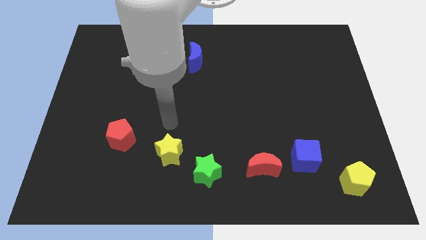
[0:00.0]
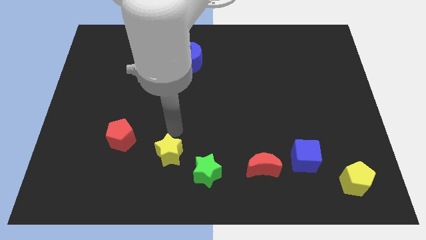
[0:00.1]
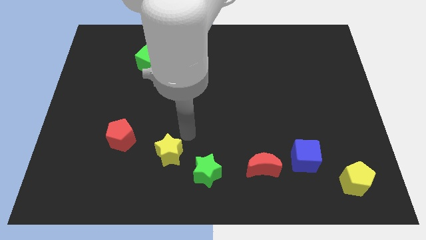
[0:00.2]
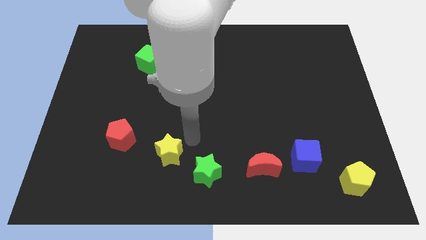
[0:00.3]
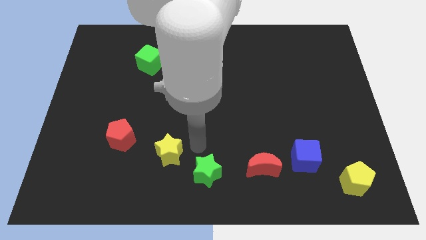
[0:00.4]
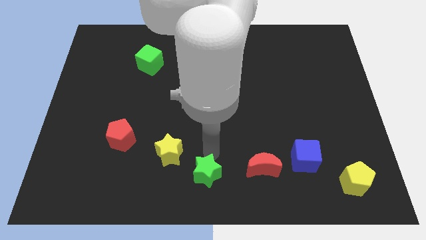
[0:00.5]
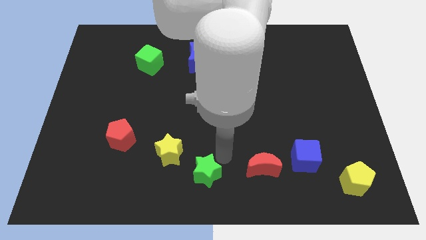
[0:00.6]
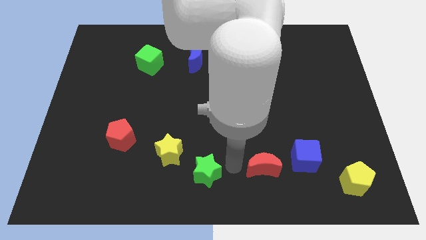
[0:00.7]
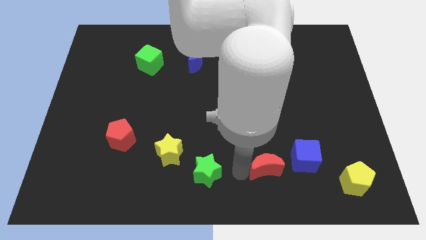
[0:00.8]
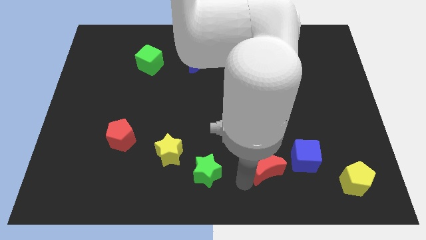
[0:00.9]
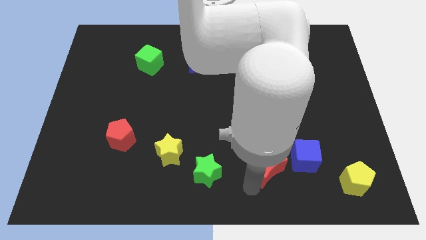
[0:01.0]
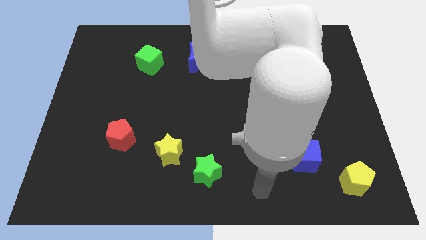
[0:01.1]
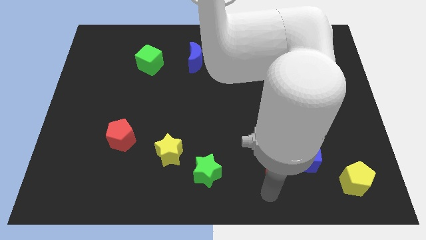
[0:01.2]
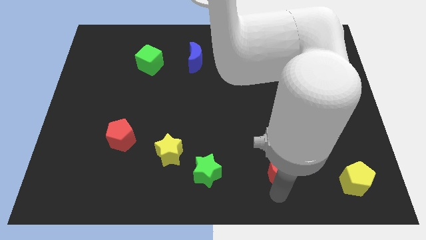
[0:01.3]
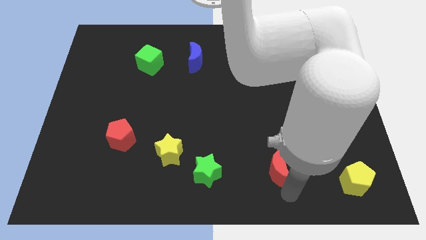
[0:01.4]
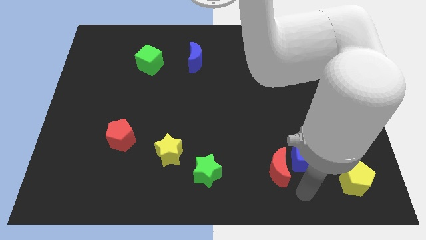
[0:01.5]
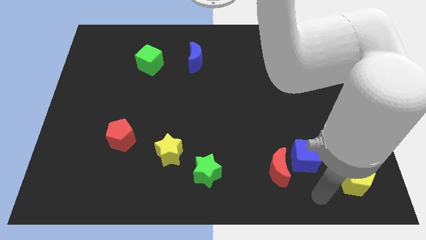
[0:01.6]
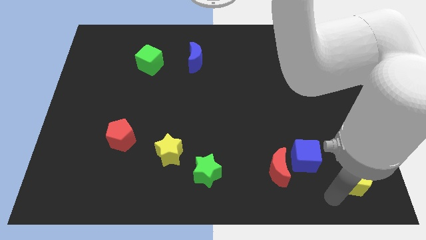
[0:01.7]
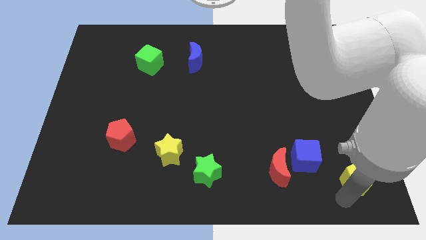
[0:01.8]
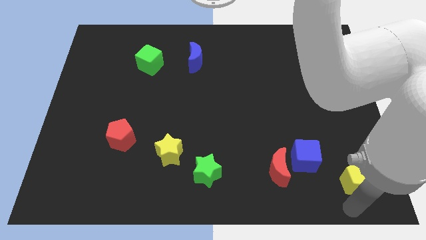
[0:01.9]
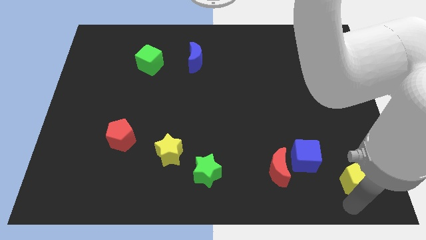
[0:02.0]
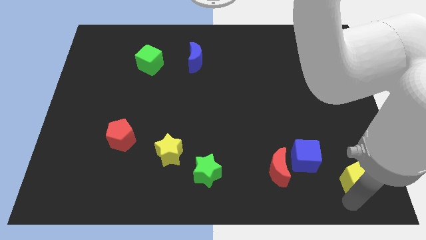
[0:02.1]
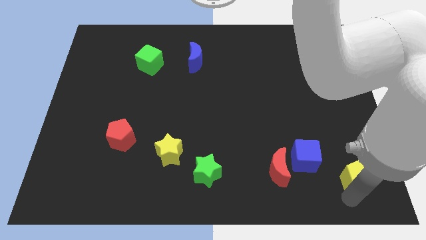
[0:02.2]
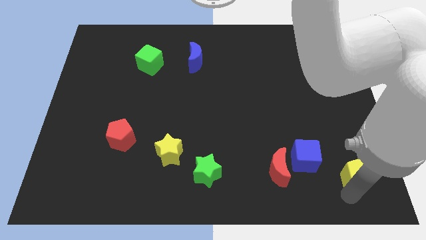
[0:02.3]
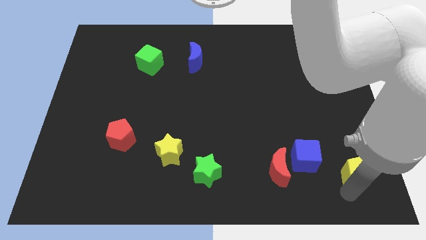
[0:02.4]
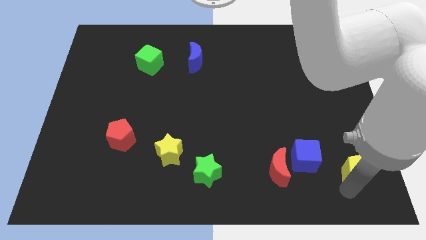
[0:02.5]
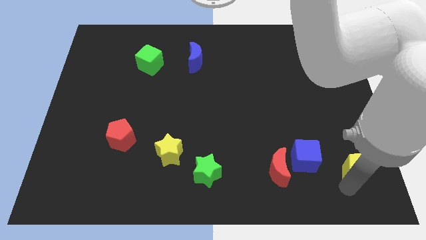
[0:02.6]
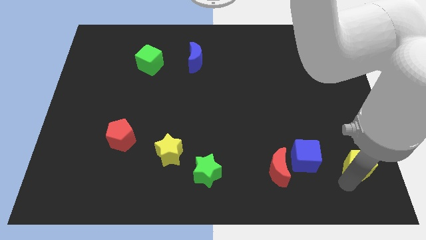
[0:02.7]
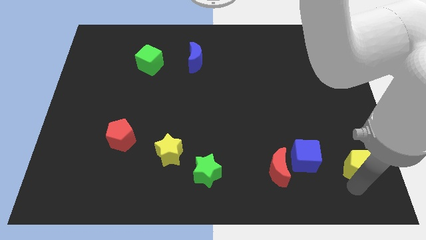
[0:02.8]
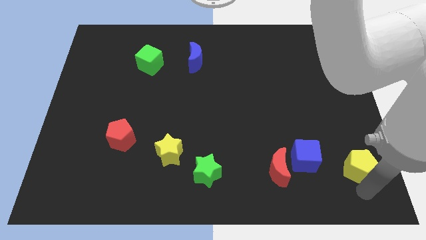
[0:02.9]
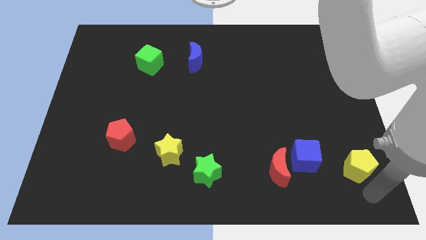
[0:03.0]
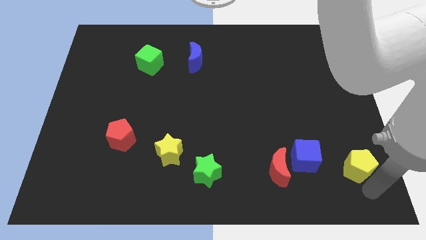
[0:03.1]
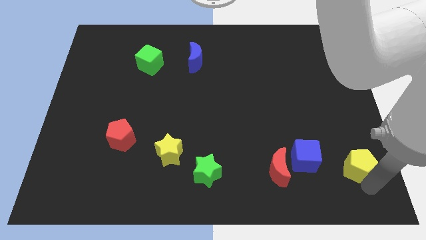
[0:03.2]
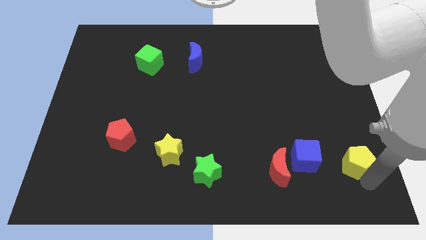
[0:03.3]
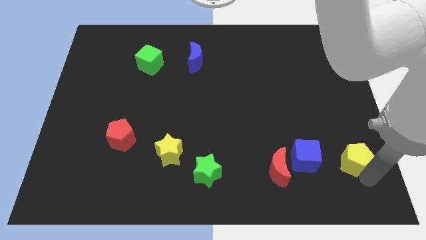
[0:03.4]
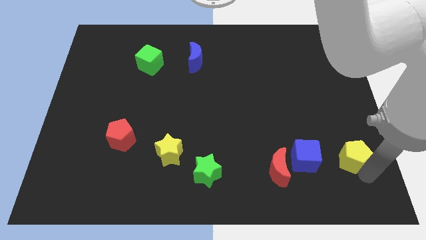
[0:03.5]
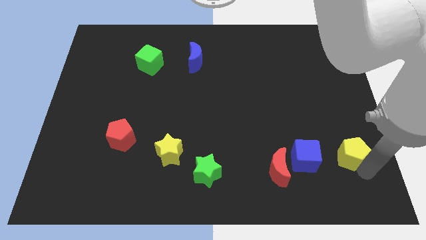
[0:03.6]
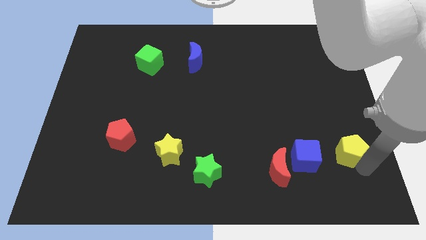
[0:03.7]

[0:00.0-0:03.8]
slightly move the yellow pentagon up

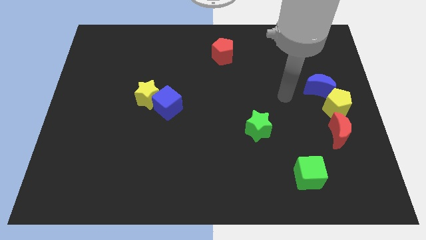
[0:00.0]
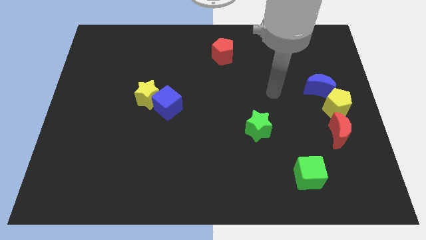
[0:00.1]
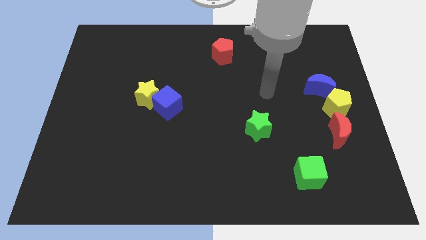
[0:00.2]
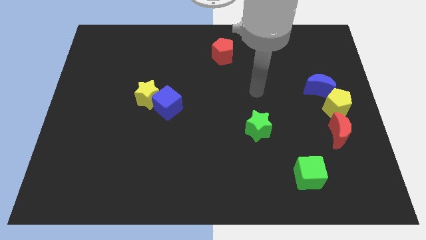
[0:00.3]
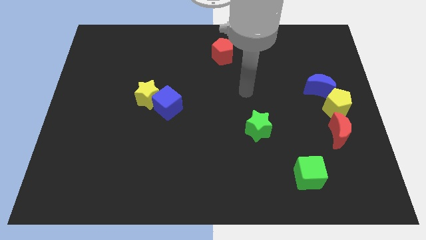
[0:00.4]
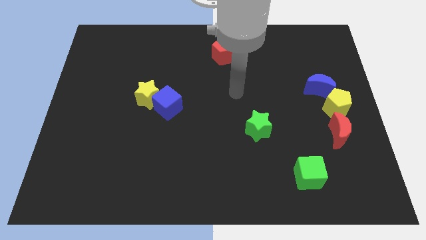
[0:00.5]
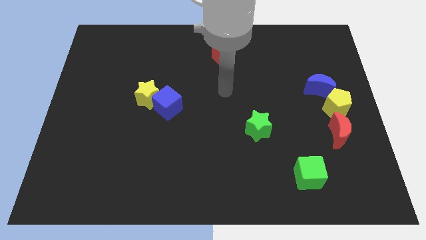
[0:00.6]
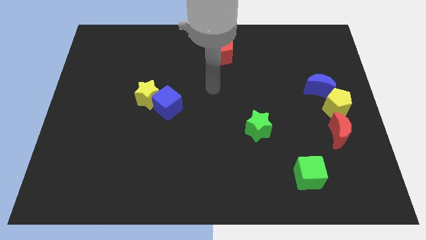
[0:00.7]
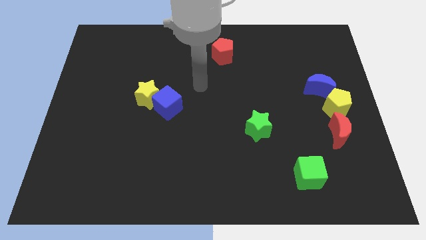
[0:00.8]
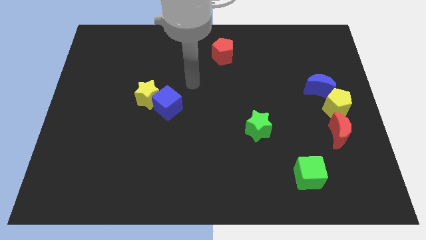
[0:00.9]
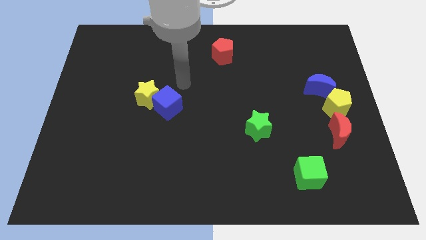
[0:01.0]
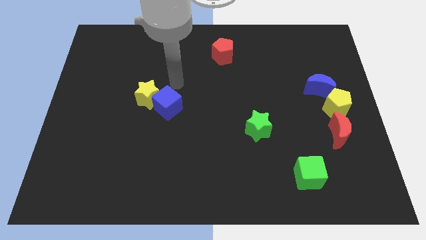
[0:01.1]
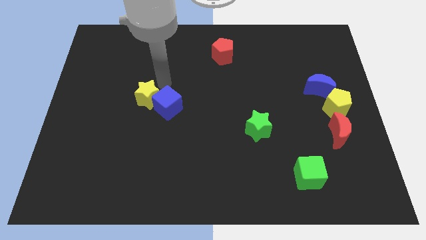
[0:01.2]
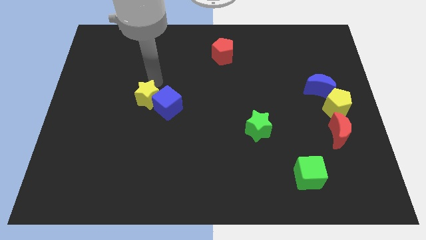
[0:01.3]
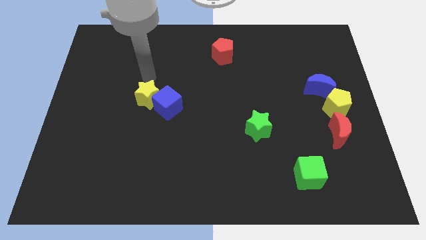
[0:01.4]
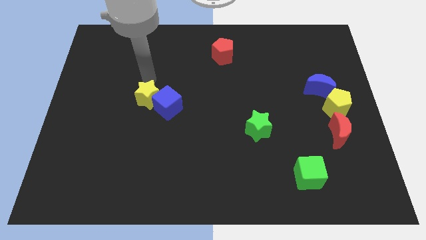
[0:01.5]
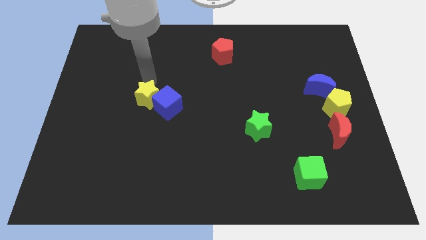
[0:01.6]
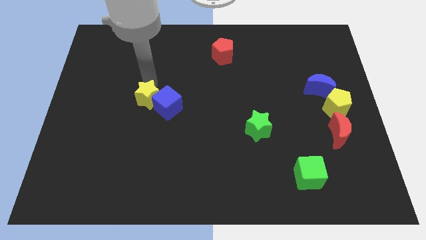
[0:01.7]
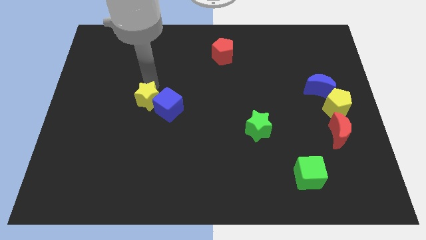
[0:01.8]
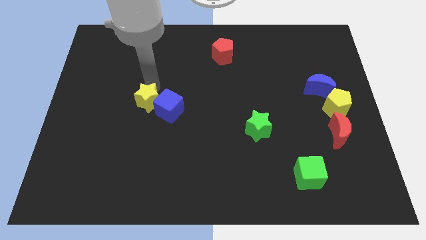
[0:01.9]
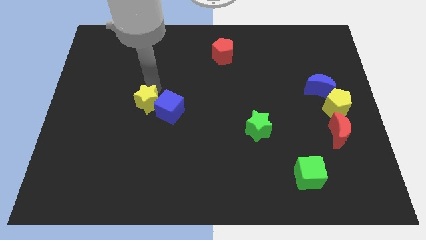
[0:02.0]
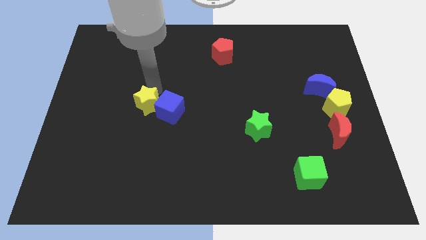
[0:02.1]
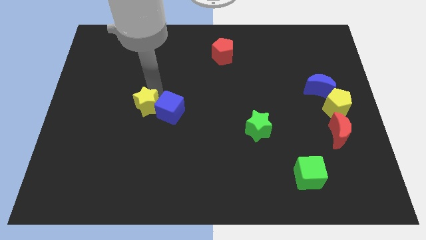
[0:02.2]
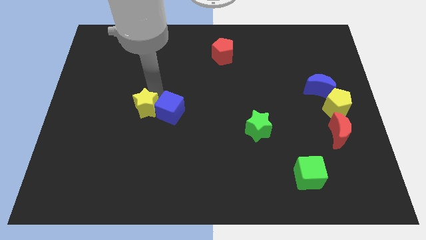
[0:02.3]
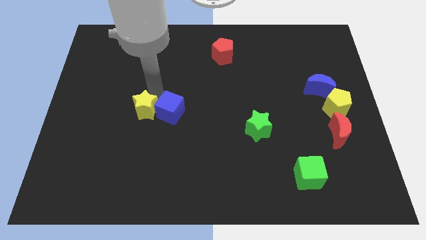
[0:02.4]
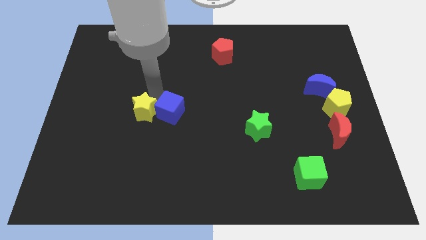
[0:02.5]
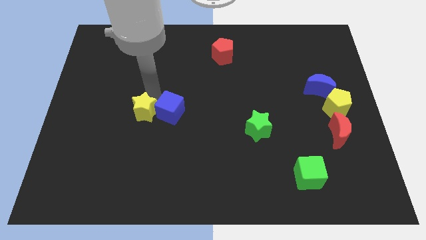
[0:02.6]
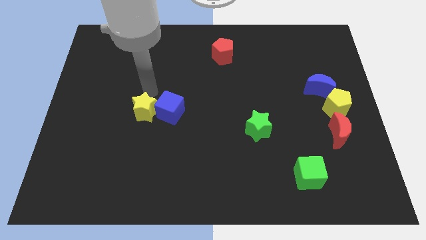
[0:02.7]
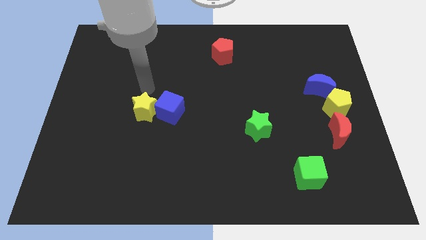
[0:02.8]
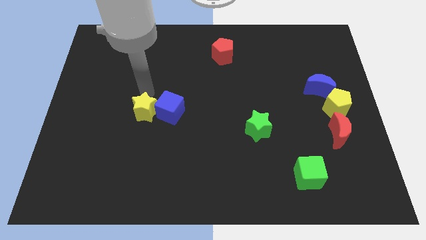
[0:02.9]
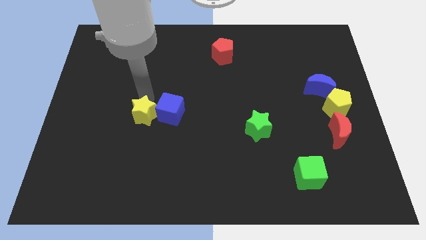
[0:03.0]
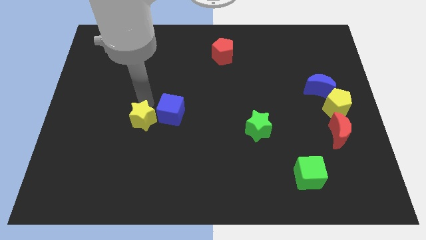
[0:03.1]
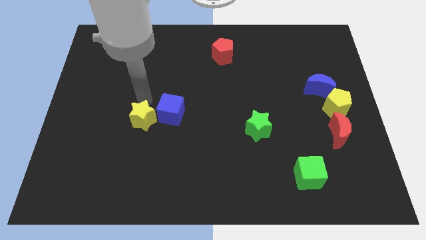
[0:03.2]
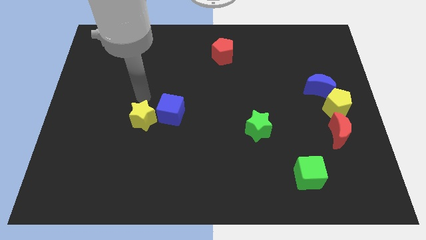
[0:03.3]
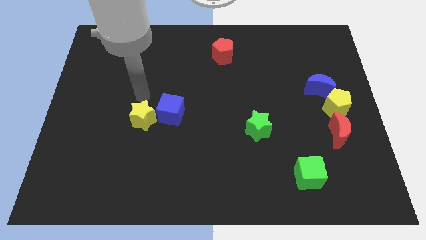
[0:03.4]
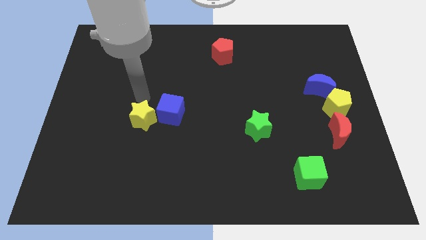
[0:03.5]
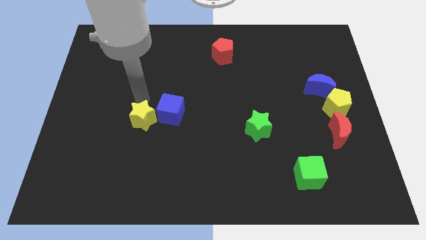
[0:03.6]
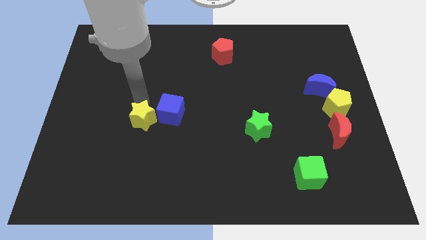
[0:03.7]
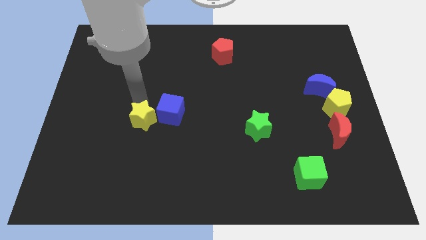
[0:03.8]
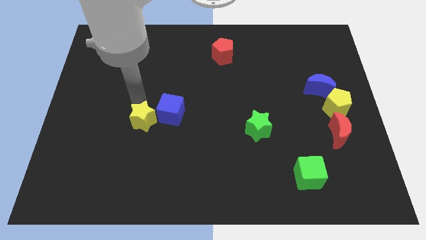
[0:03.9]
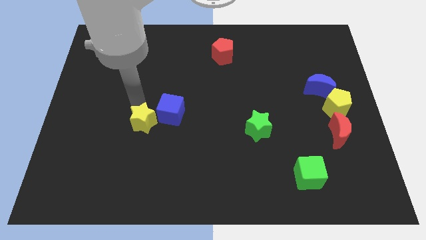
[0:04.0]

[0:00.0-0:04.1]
move the yellow star down a bit
